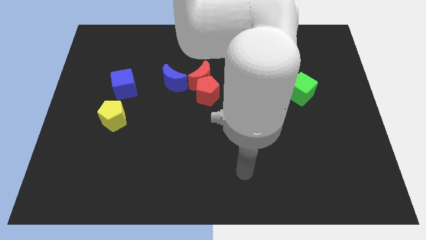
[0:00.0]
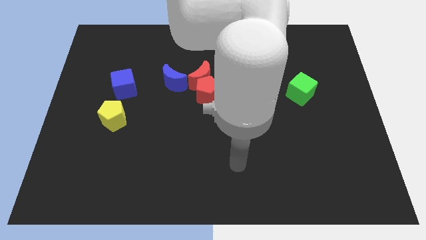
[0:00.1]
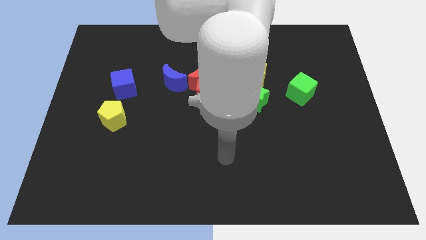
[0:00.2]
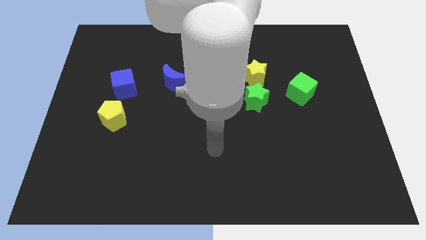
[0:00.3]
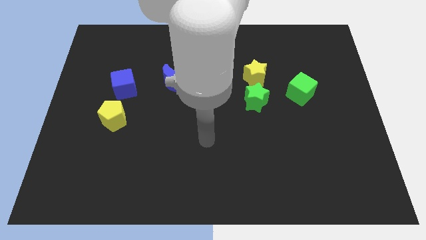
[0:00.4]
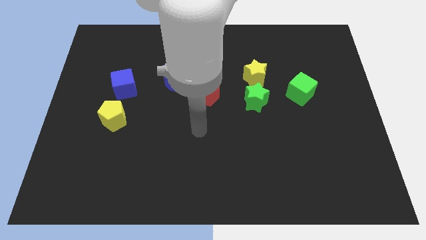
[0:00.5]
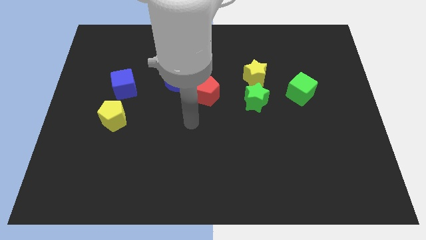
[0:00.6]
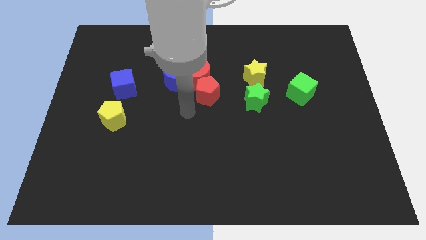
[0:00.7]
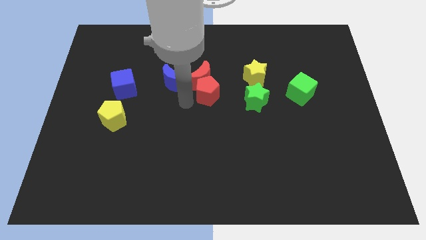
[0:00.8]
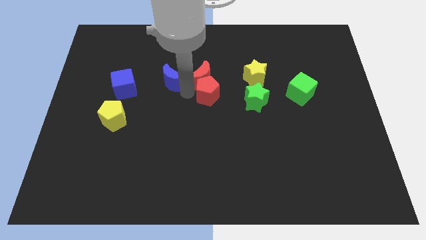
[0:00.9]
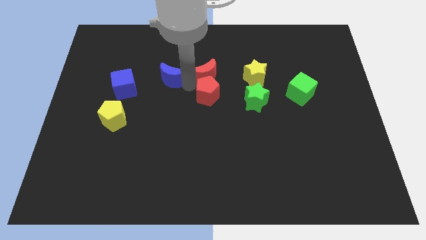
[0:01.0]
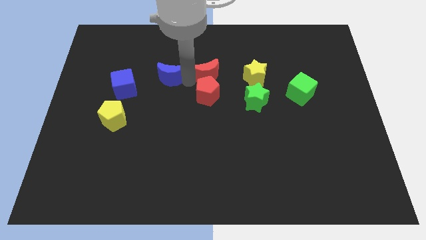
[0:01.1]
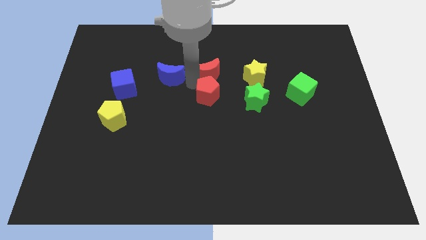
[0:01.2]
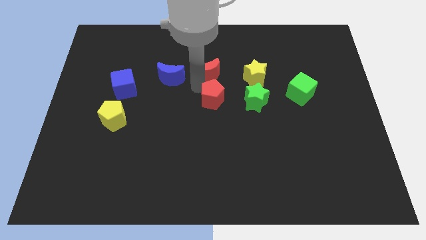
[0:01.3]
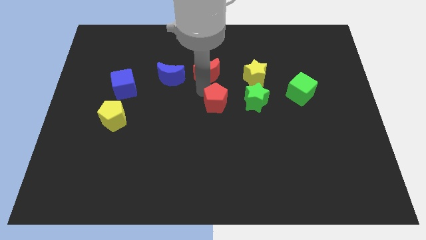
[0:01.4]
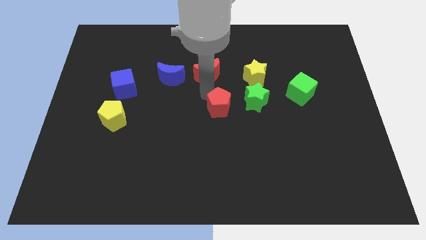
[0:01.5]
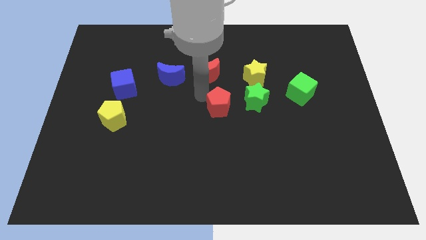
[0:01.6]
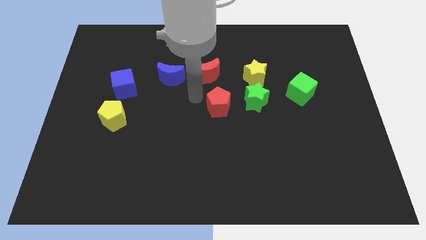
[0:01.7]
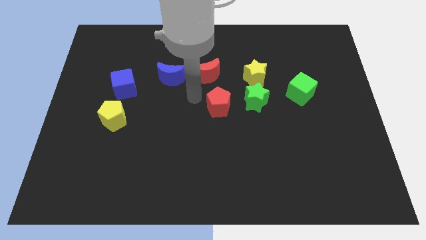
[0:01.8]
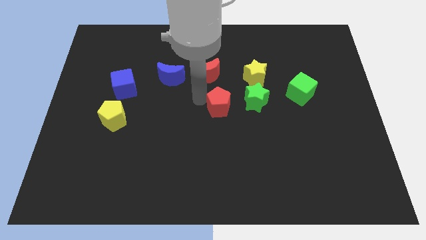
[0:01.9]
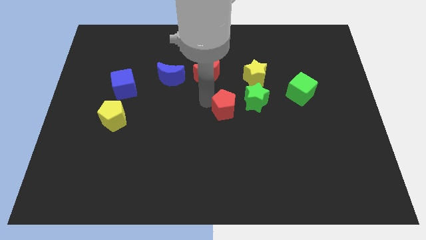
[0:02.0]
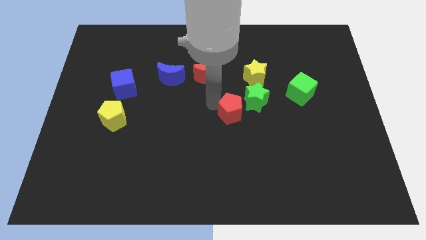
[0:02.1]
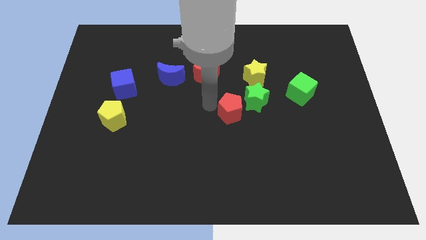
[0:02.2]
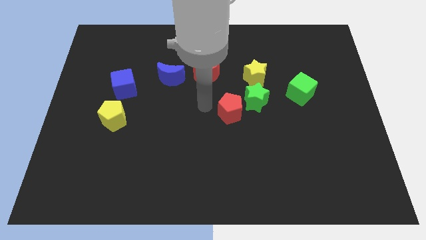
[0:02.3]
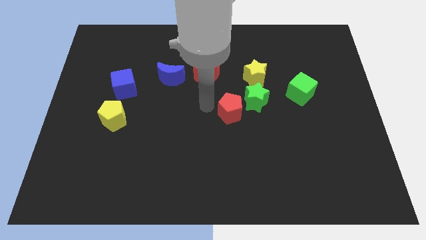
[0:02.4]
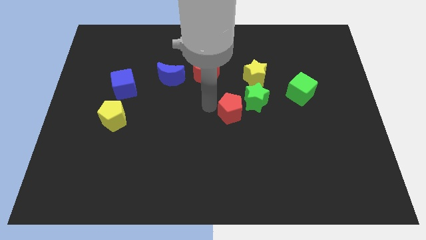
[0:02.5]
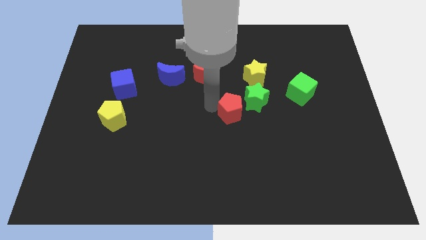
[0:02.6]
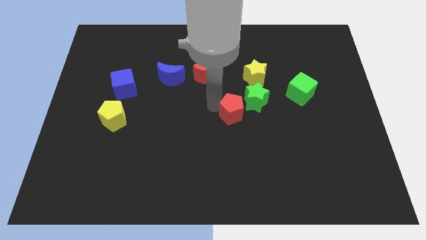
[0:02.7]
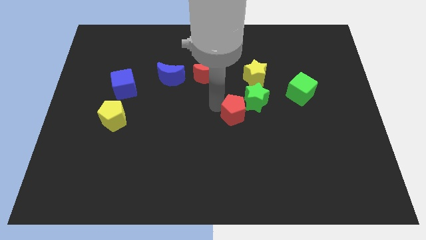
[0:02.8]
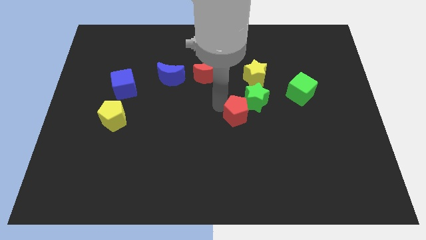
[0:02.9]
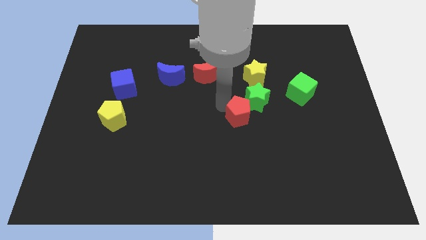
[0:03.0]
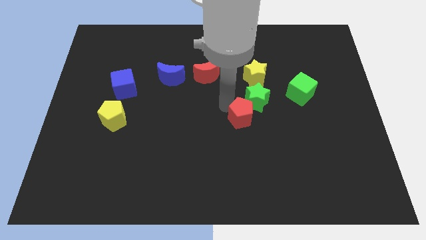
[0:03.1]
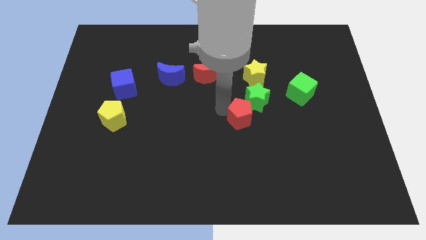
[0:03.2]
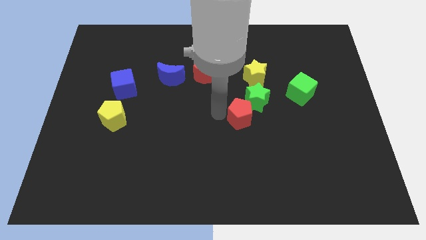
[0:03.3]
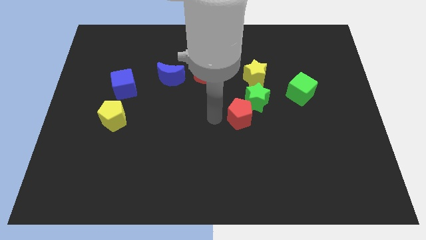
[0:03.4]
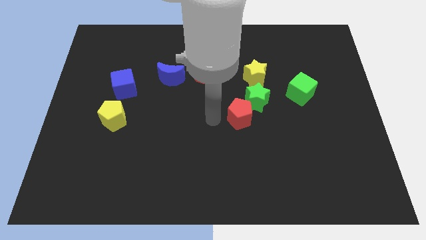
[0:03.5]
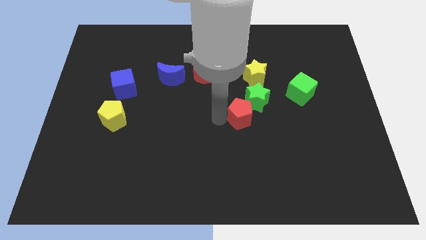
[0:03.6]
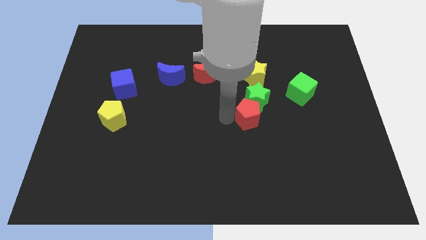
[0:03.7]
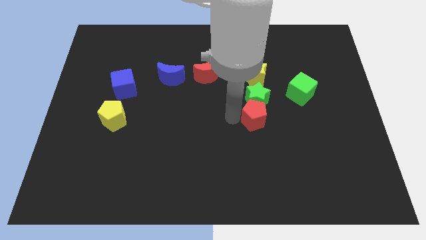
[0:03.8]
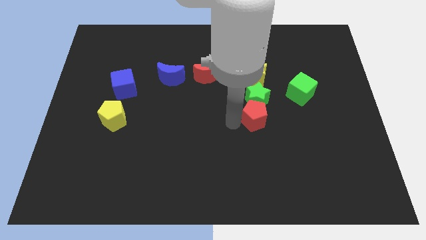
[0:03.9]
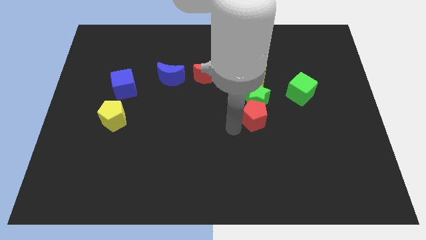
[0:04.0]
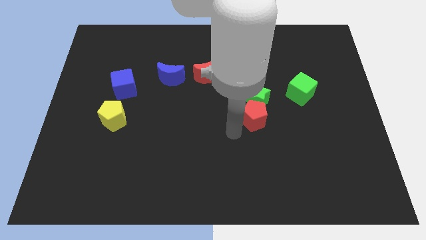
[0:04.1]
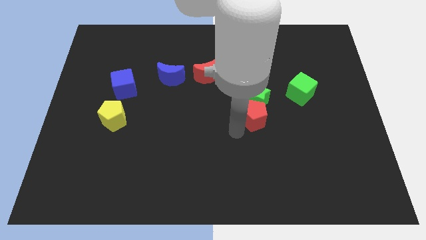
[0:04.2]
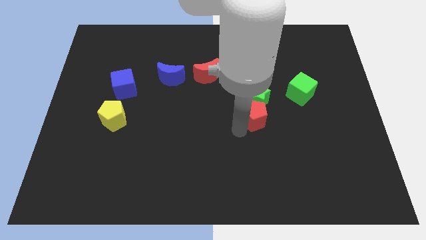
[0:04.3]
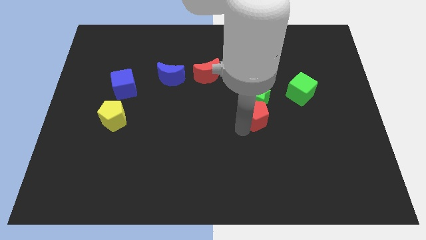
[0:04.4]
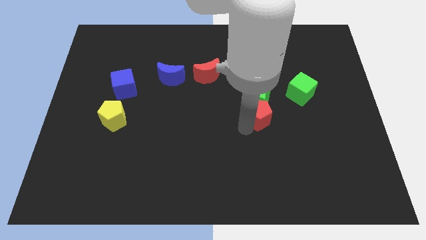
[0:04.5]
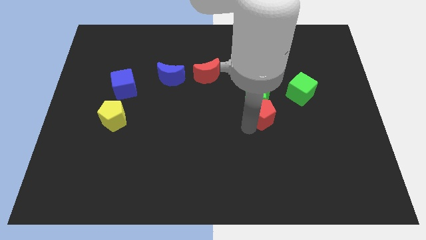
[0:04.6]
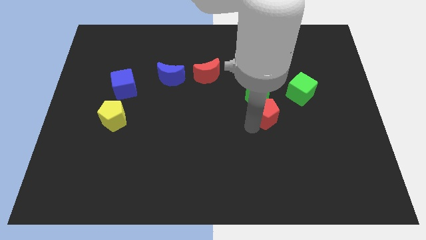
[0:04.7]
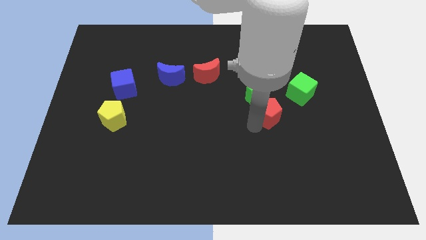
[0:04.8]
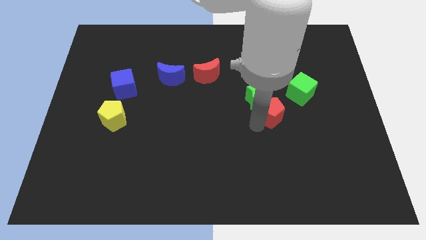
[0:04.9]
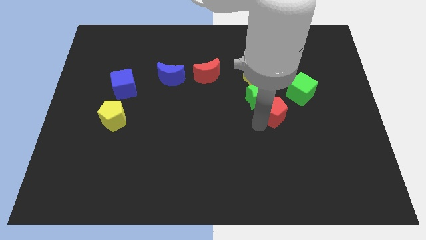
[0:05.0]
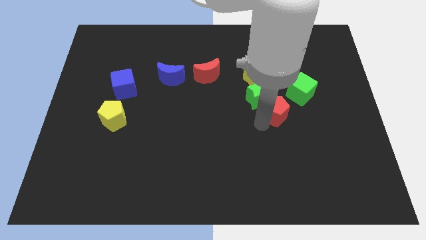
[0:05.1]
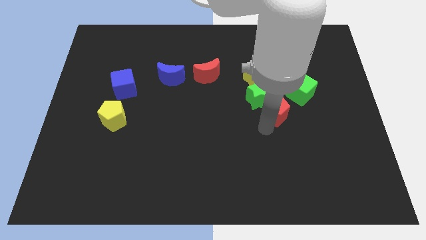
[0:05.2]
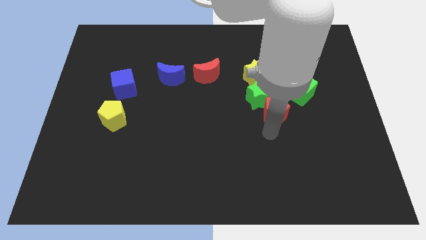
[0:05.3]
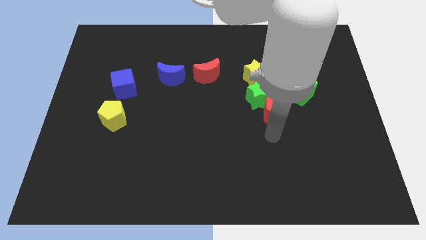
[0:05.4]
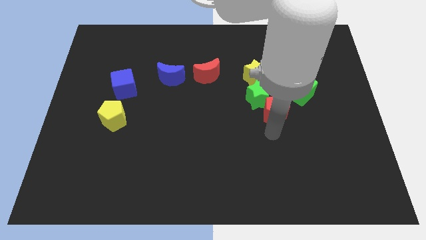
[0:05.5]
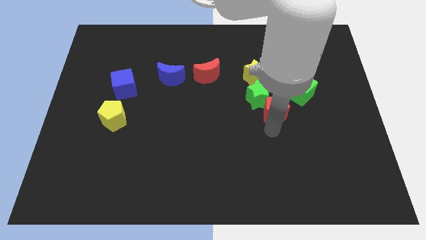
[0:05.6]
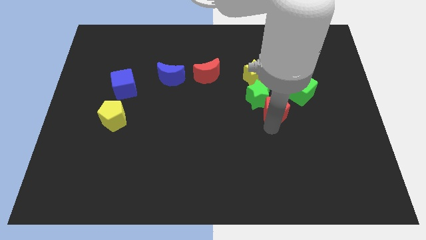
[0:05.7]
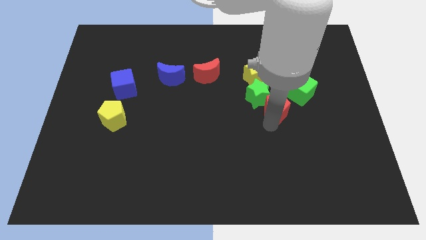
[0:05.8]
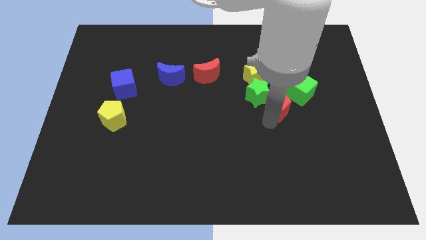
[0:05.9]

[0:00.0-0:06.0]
push the red pentagon to the bottom right of the yellow star

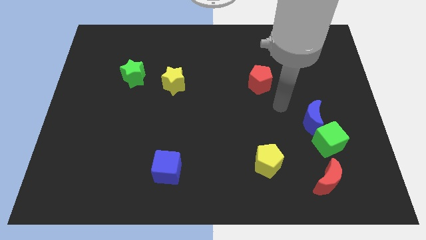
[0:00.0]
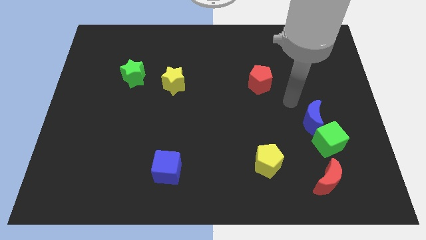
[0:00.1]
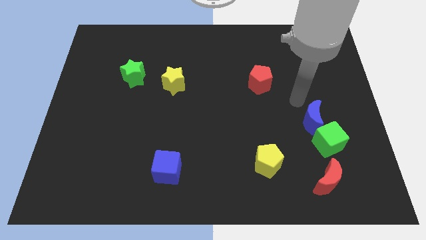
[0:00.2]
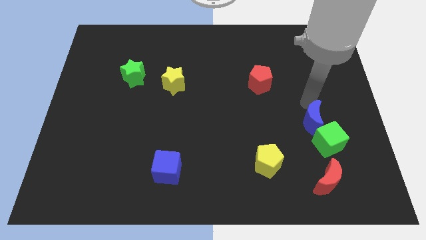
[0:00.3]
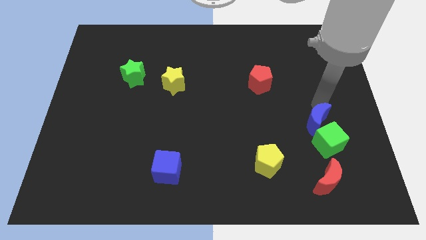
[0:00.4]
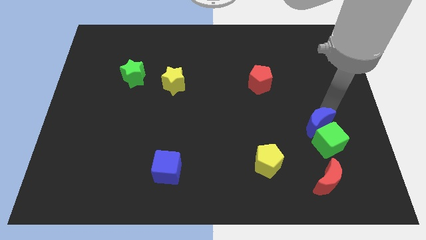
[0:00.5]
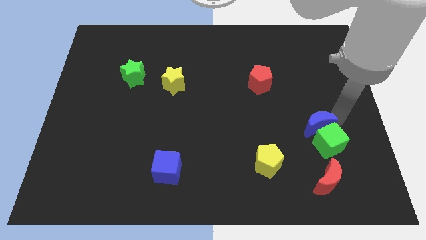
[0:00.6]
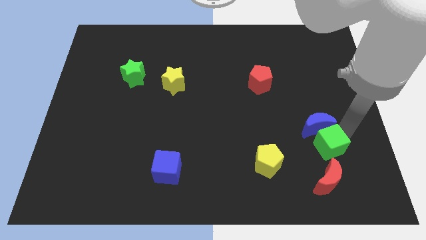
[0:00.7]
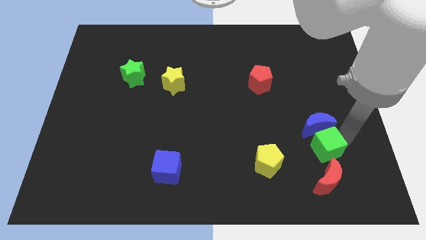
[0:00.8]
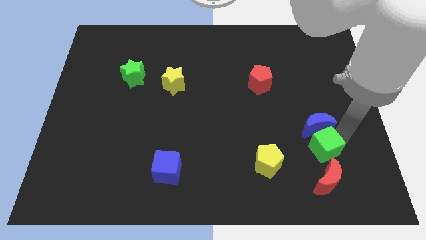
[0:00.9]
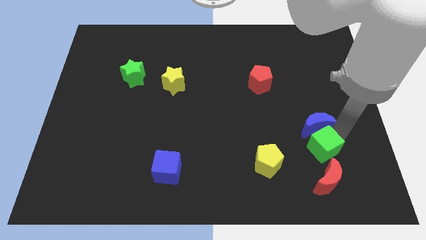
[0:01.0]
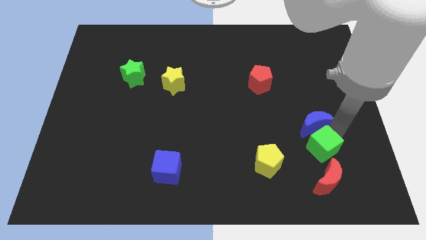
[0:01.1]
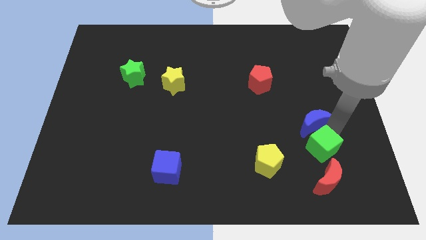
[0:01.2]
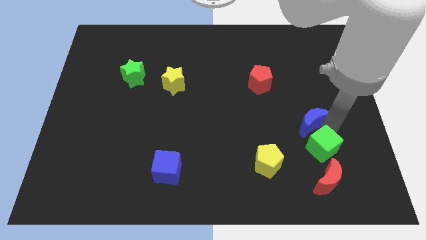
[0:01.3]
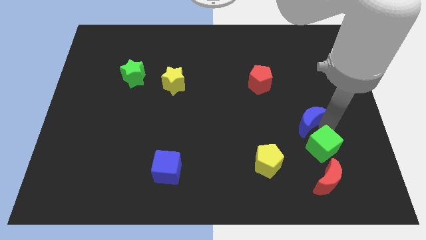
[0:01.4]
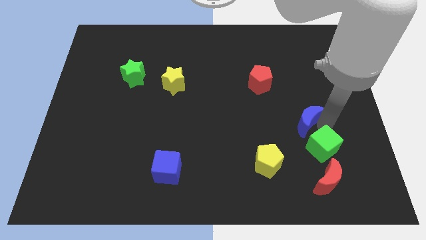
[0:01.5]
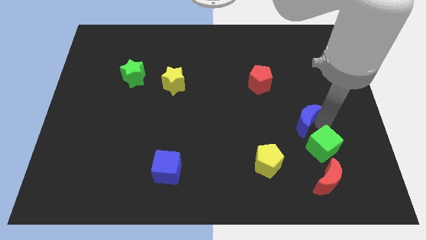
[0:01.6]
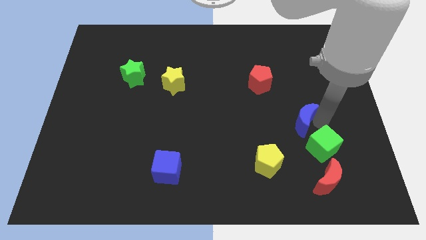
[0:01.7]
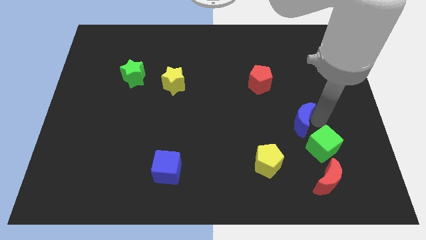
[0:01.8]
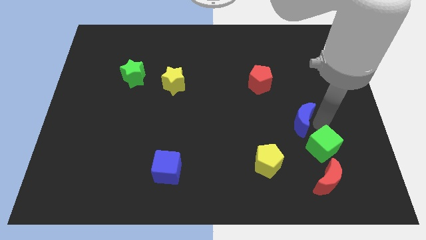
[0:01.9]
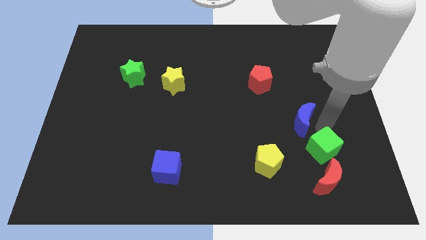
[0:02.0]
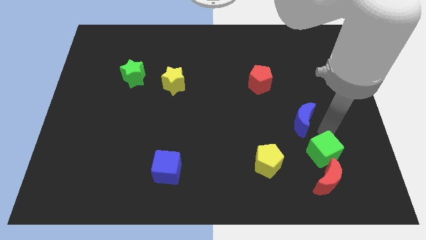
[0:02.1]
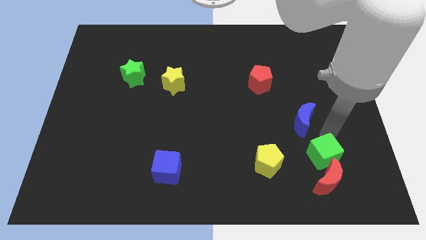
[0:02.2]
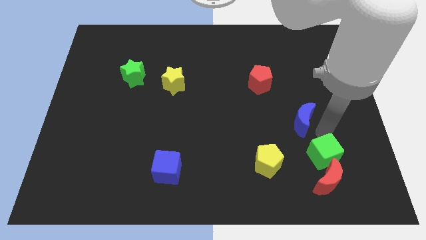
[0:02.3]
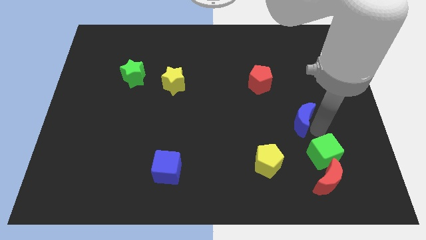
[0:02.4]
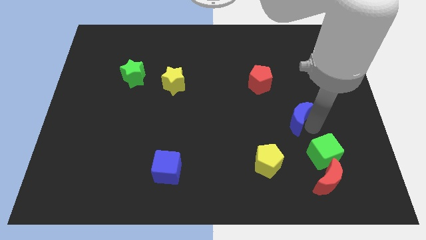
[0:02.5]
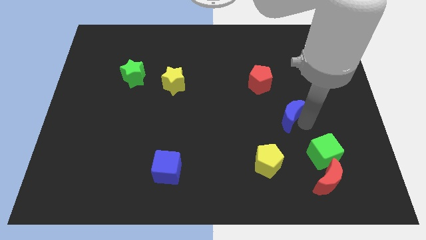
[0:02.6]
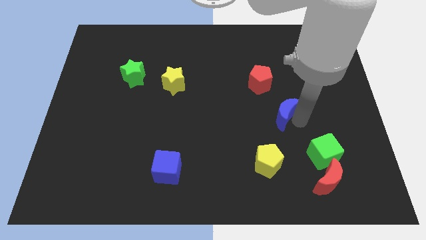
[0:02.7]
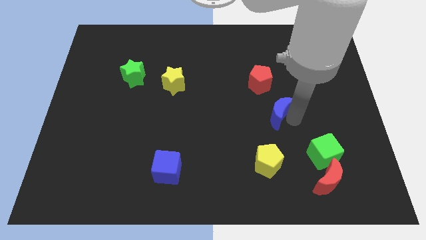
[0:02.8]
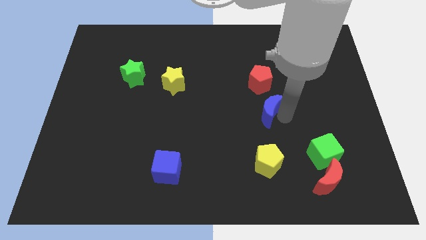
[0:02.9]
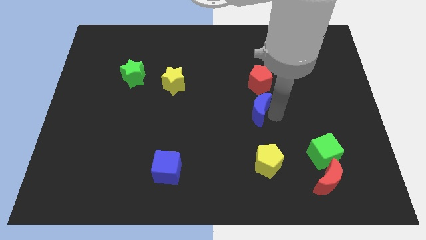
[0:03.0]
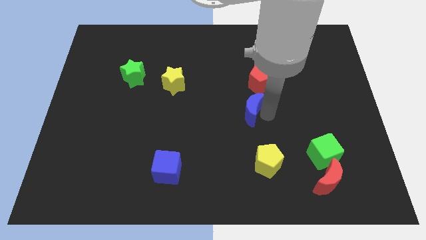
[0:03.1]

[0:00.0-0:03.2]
push the blue moon to the bottom left side of the red pentagon
